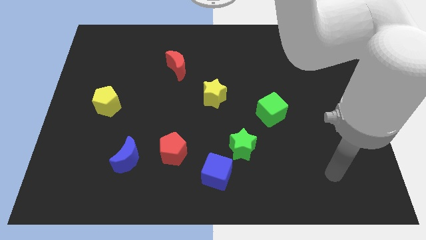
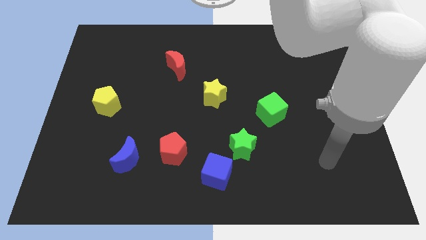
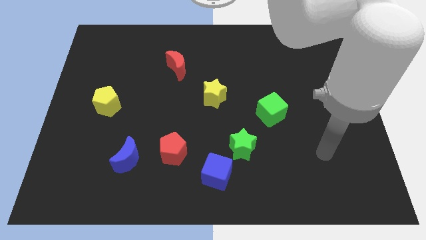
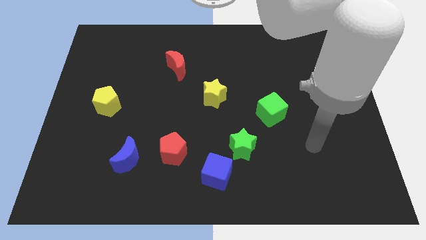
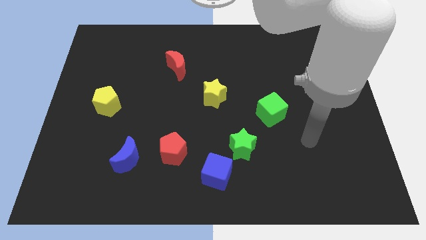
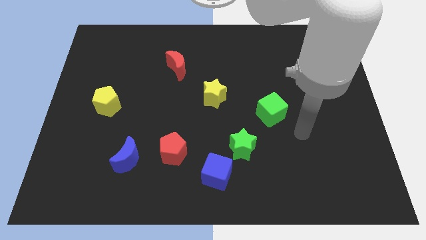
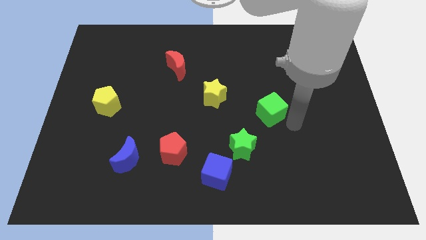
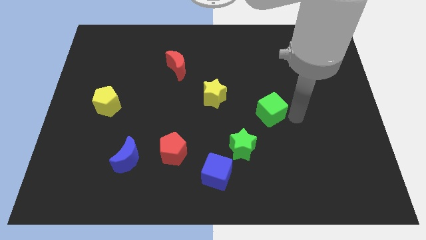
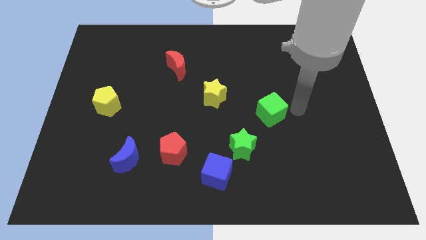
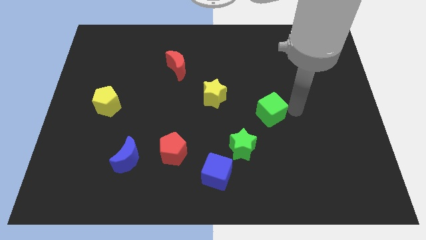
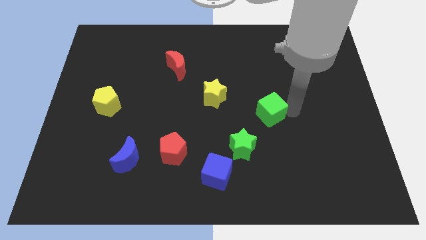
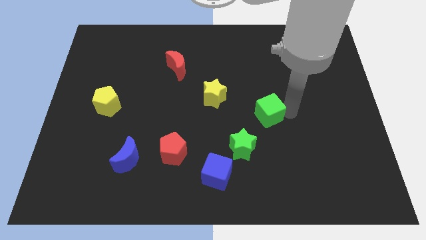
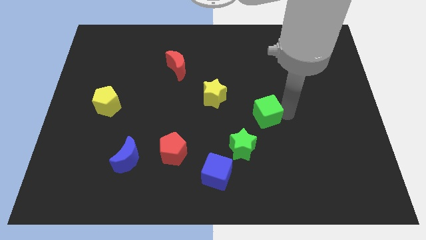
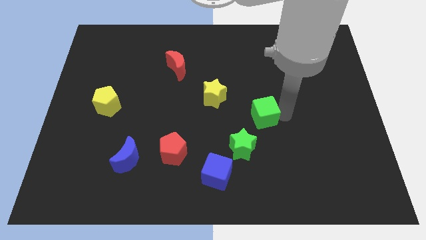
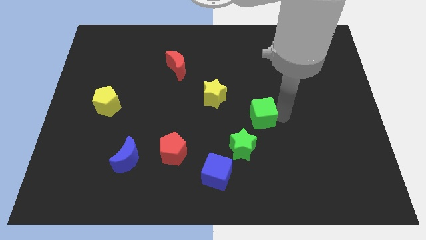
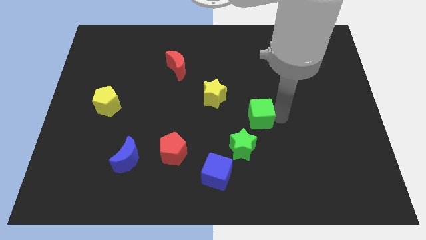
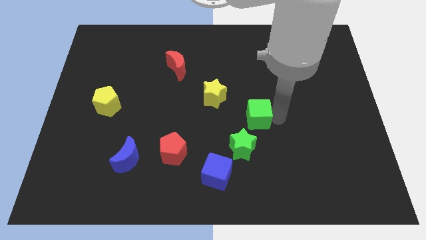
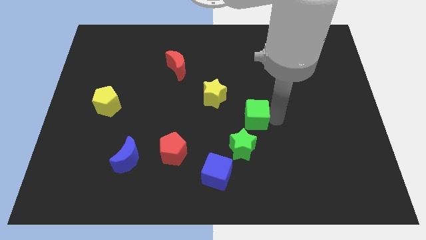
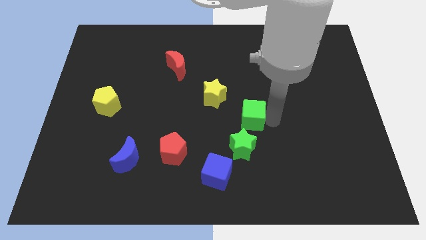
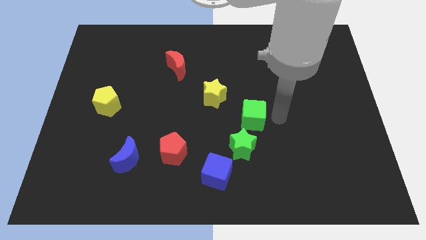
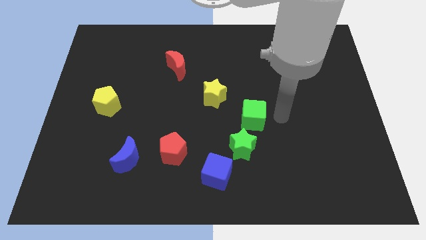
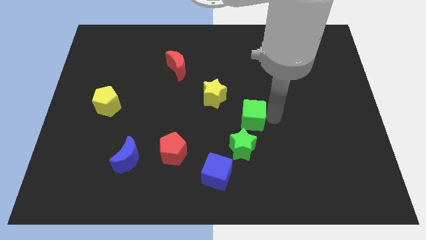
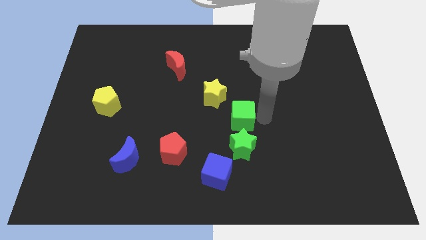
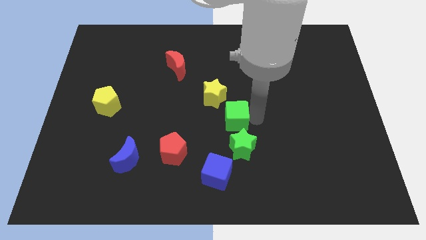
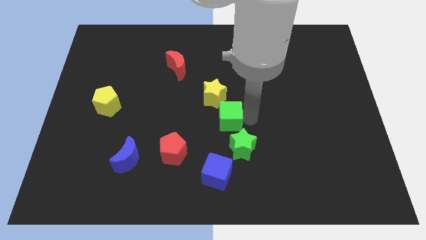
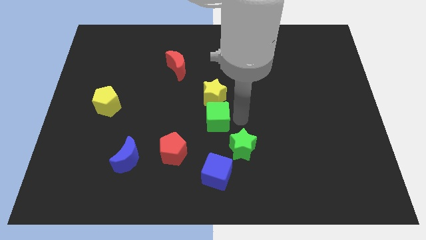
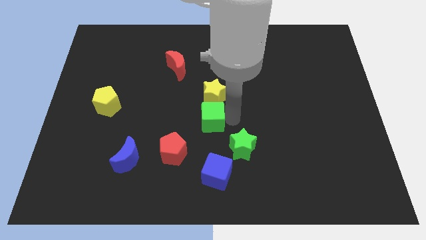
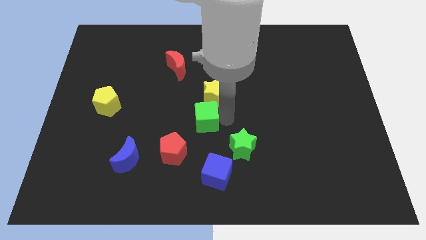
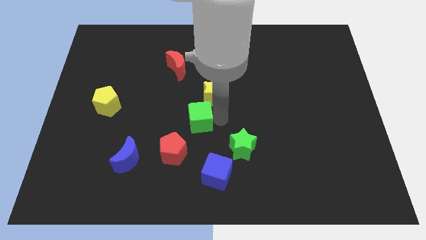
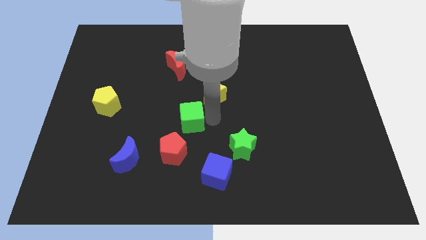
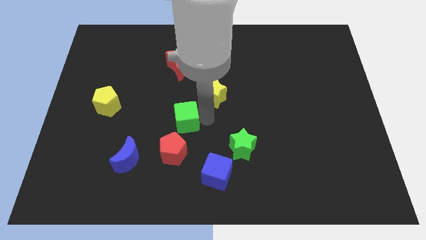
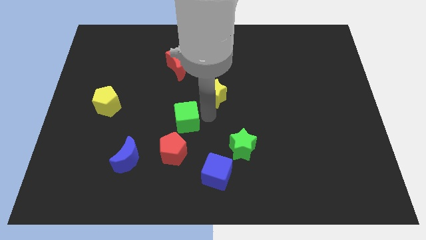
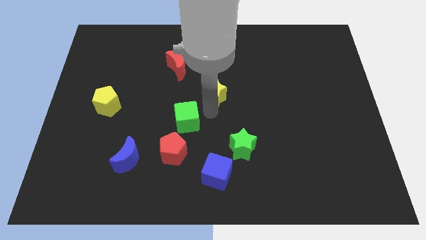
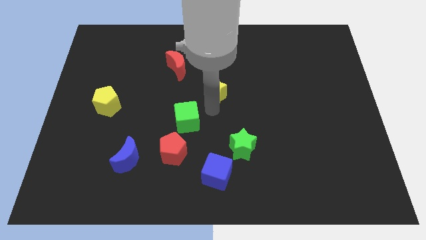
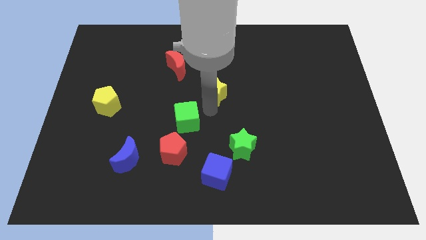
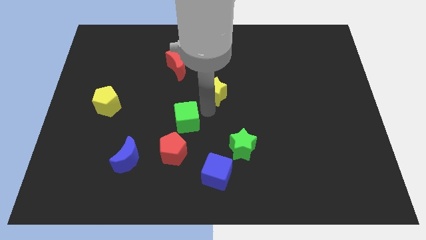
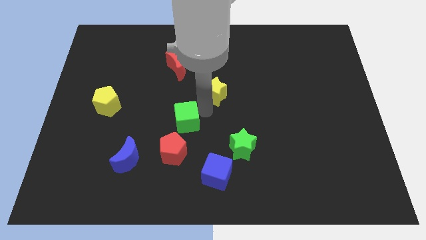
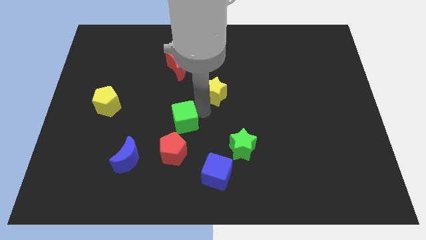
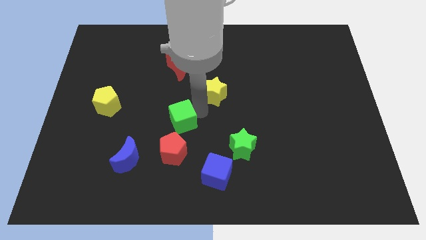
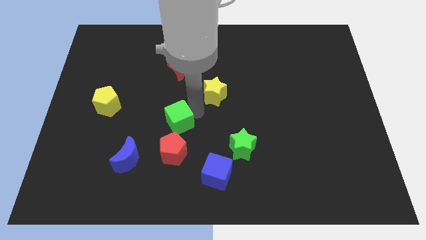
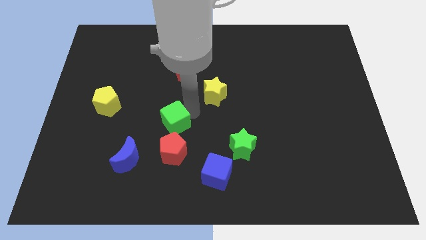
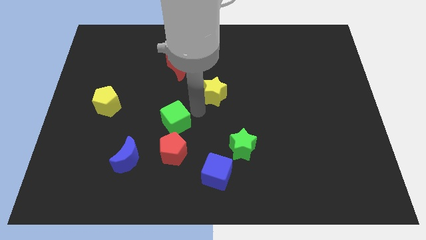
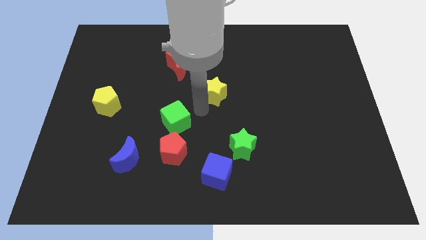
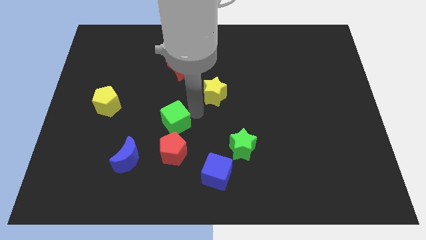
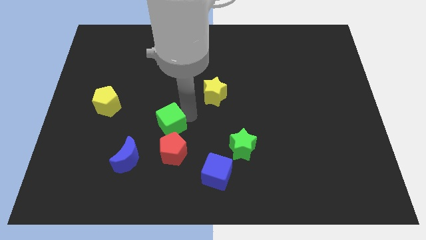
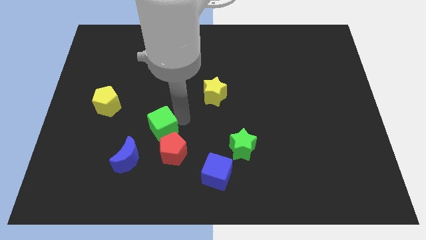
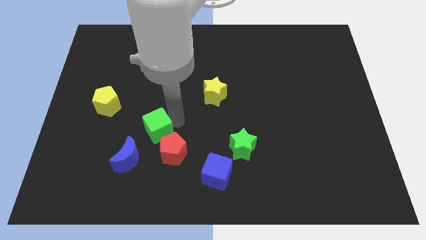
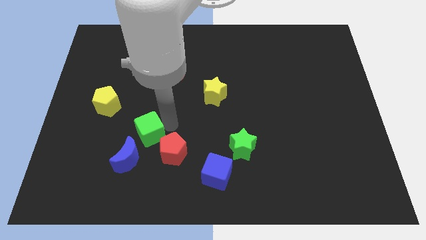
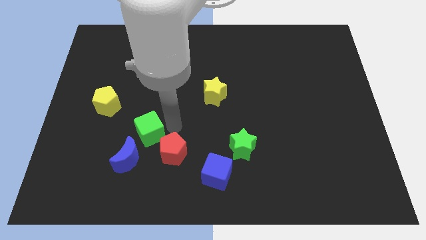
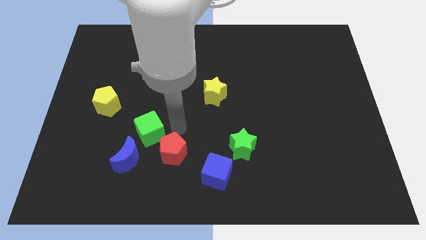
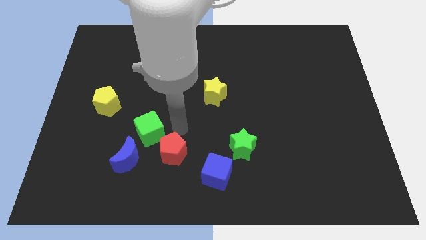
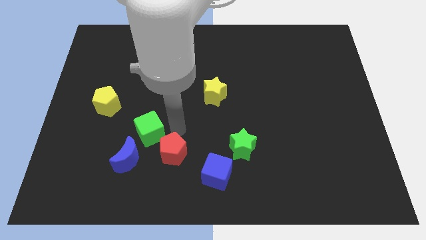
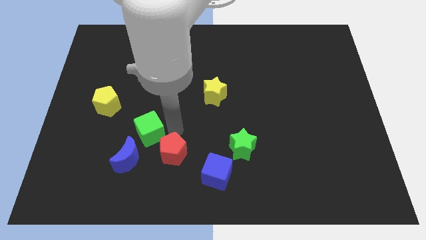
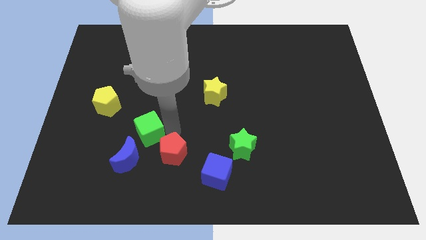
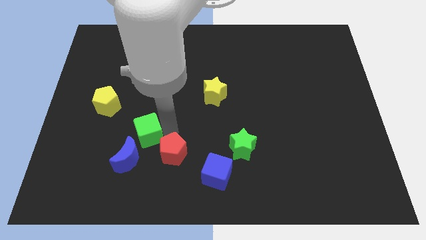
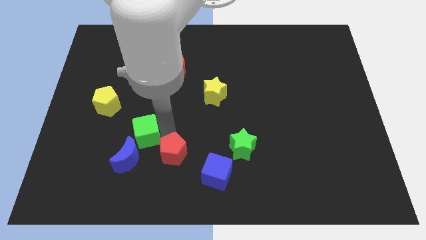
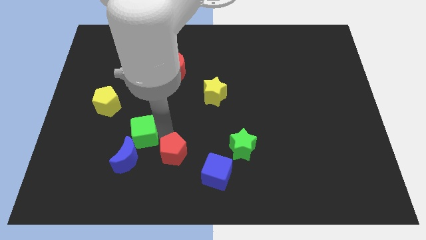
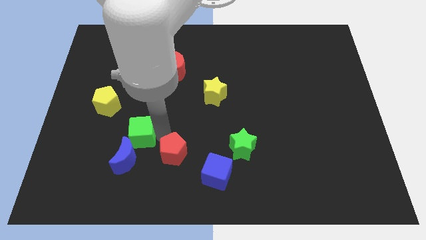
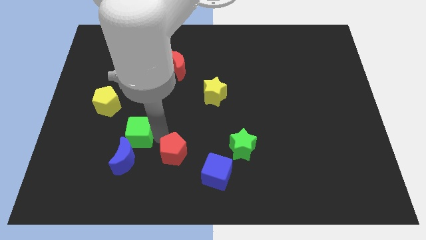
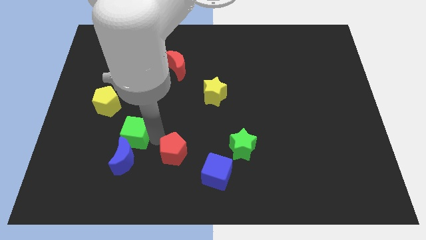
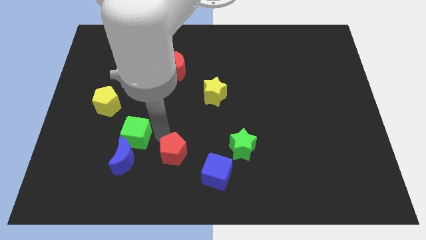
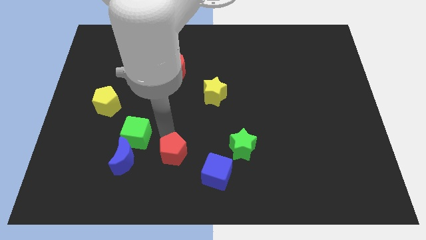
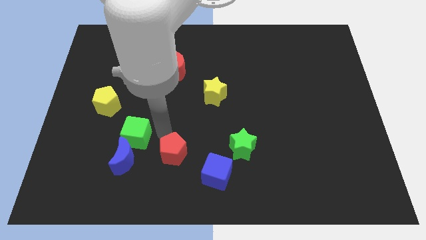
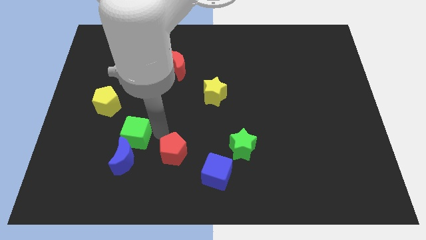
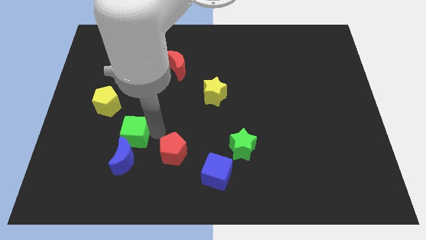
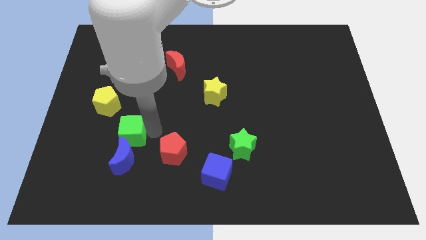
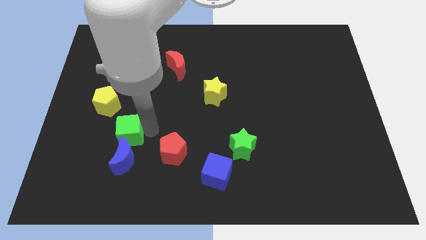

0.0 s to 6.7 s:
move the green cube diagonally up and to the left of the blue moon
